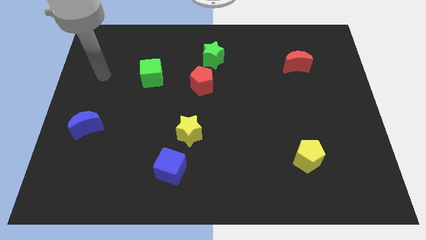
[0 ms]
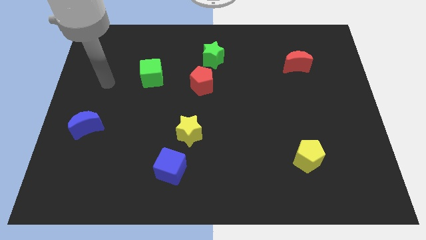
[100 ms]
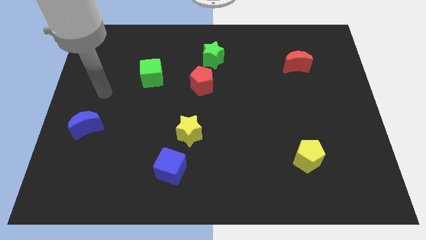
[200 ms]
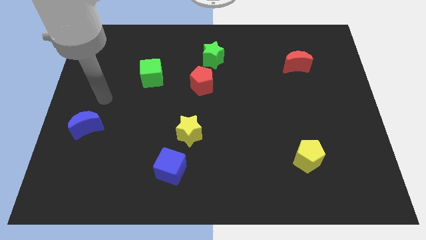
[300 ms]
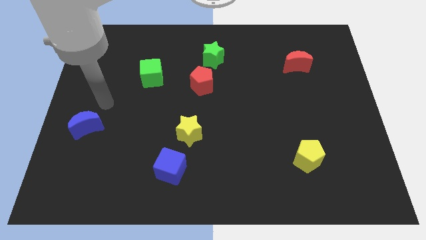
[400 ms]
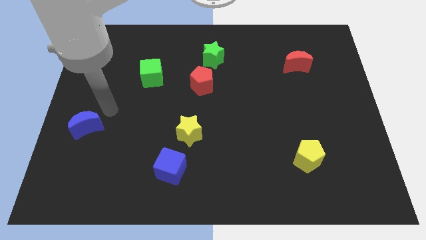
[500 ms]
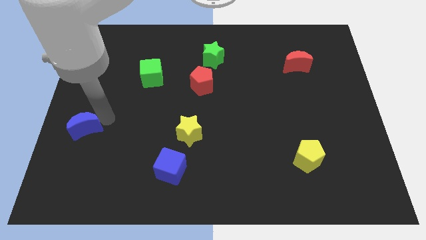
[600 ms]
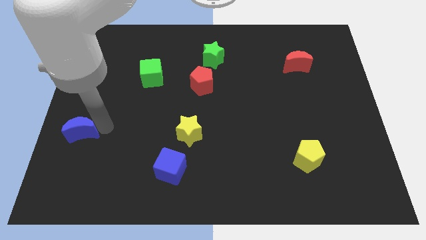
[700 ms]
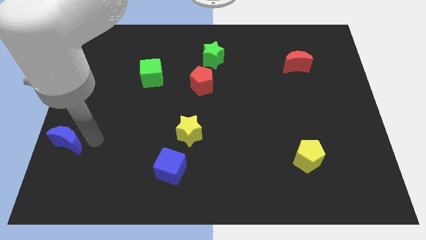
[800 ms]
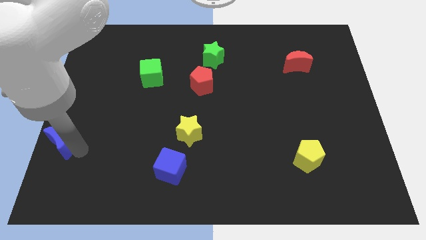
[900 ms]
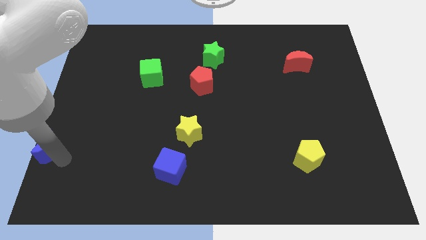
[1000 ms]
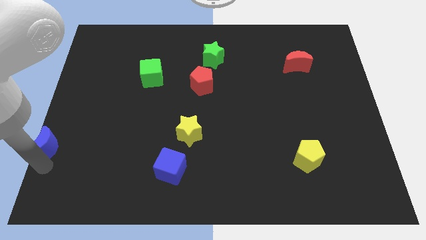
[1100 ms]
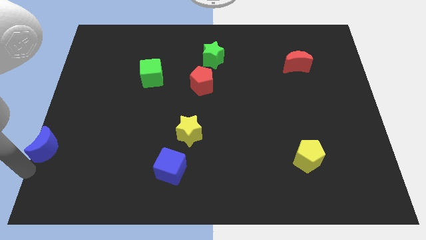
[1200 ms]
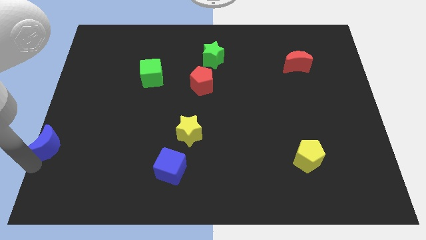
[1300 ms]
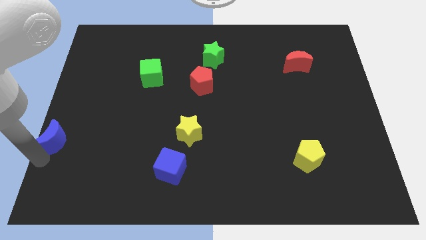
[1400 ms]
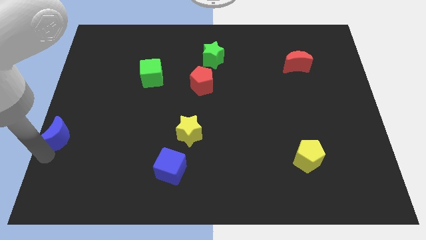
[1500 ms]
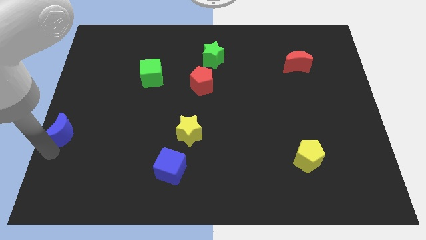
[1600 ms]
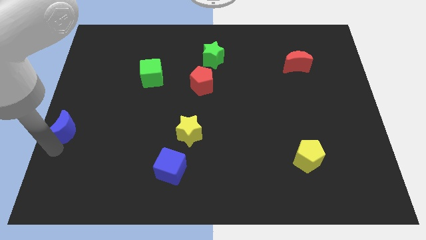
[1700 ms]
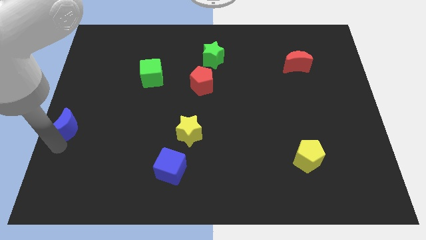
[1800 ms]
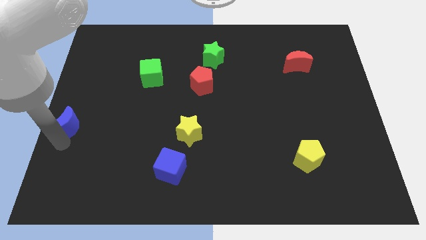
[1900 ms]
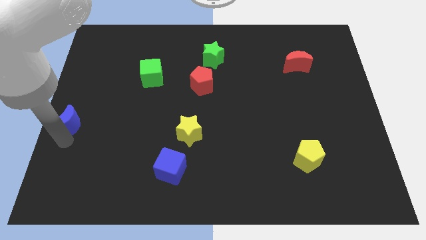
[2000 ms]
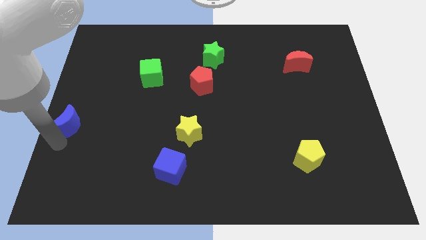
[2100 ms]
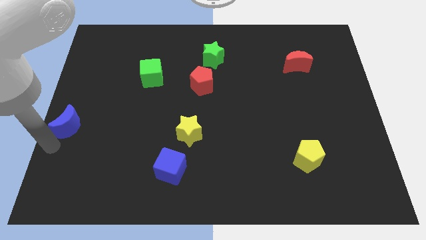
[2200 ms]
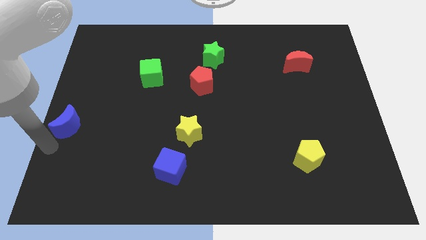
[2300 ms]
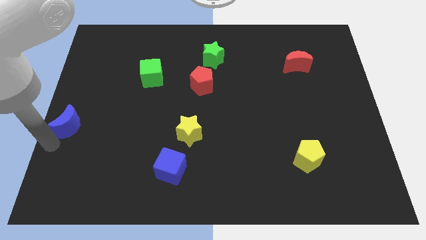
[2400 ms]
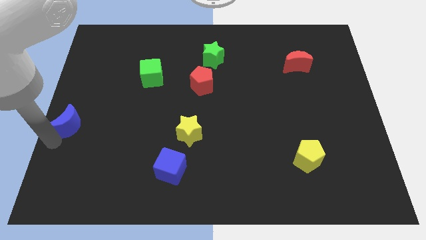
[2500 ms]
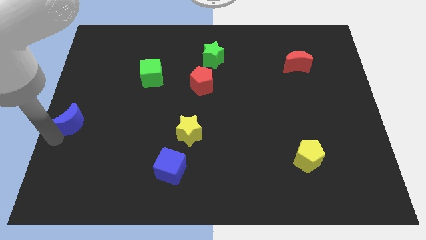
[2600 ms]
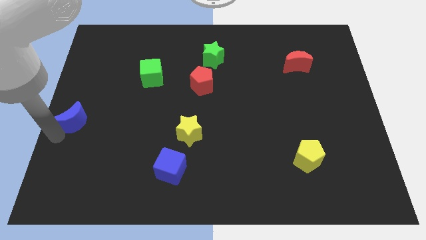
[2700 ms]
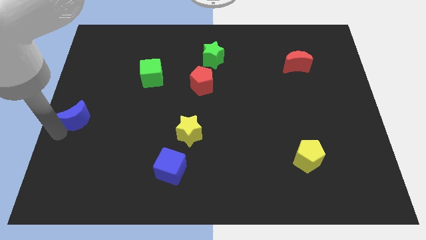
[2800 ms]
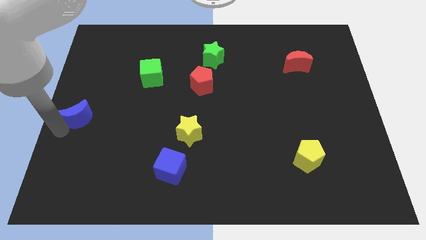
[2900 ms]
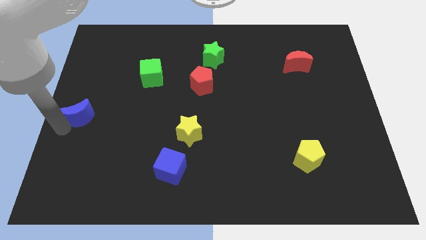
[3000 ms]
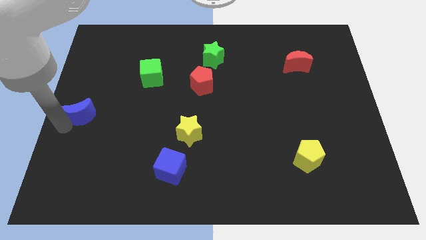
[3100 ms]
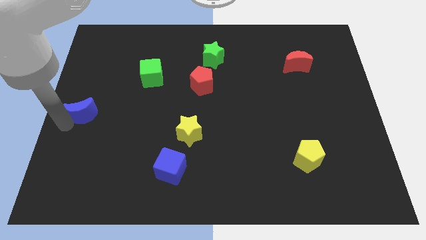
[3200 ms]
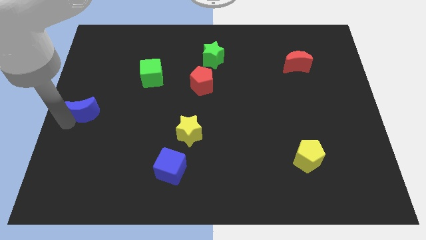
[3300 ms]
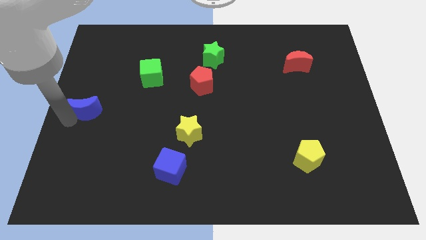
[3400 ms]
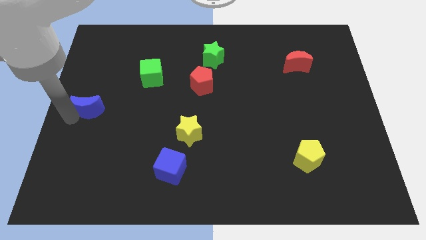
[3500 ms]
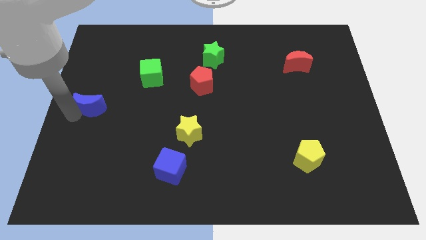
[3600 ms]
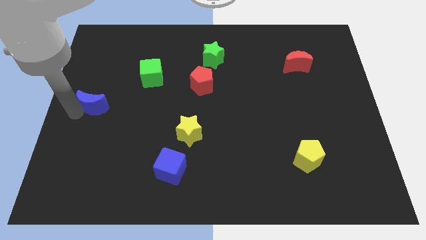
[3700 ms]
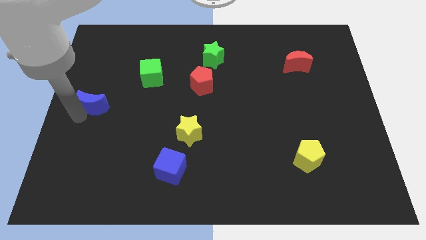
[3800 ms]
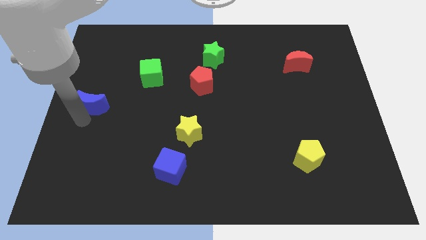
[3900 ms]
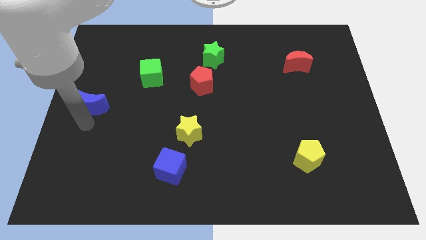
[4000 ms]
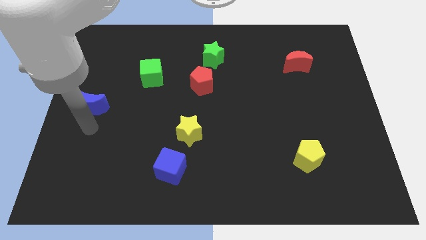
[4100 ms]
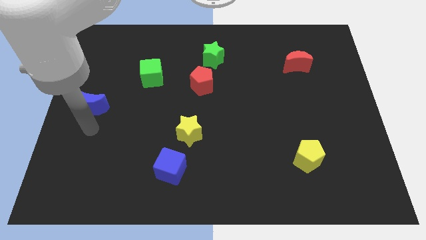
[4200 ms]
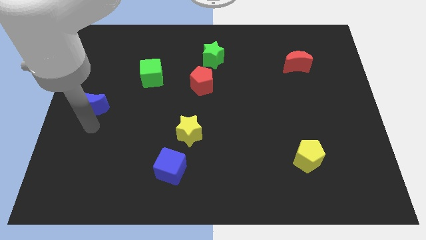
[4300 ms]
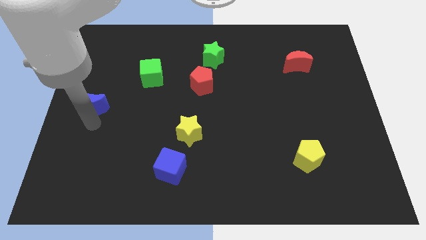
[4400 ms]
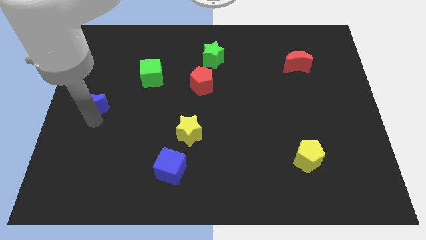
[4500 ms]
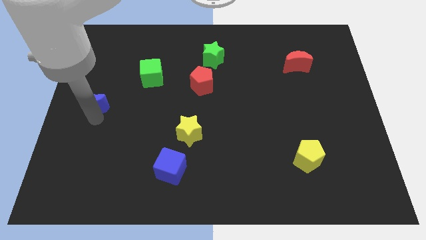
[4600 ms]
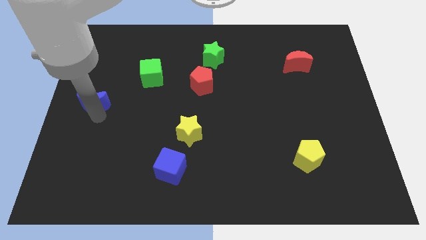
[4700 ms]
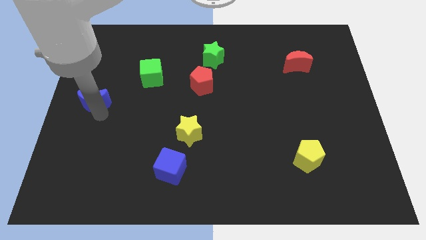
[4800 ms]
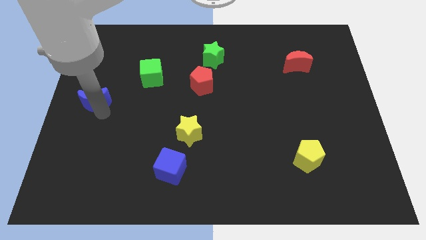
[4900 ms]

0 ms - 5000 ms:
slightly slide the blue moon upwards

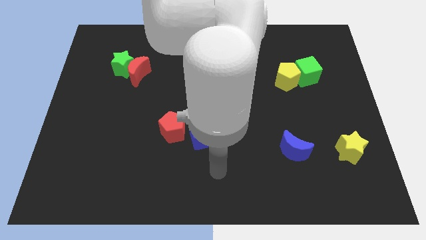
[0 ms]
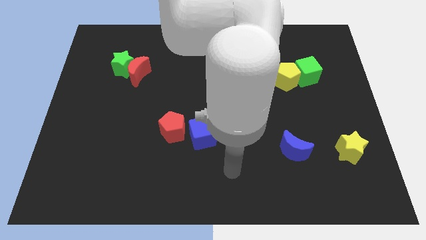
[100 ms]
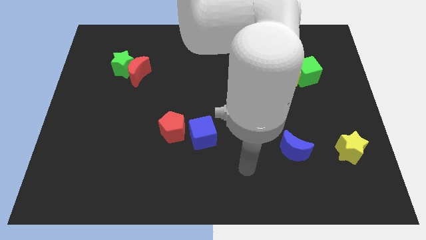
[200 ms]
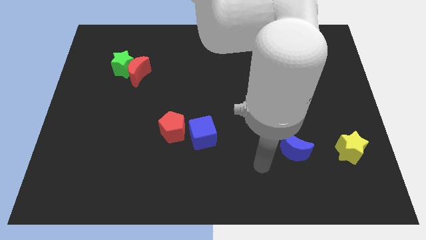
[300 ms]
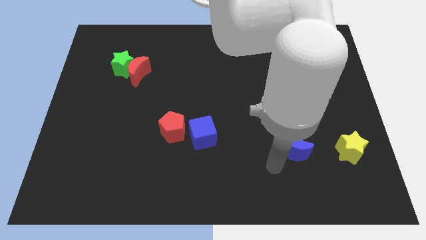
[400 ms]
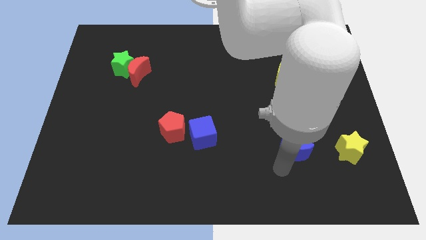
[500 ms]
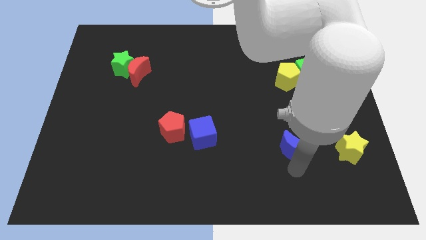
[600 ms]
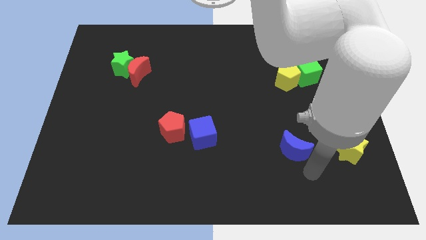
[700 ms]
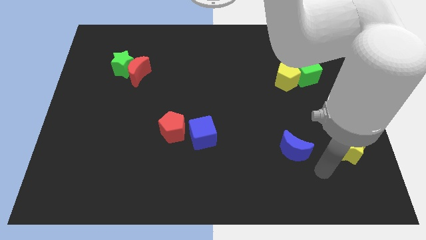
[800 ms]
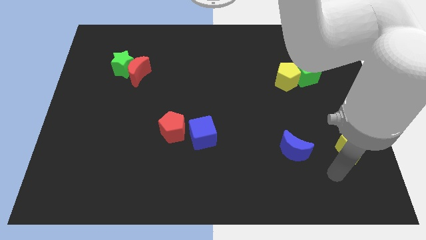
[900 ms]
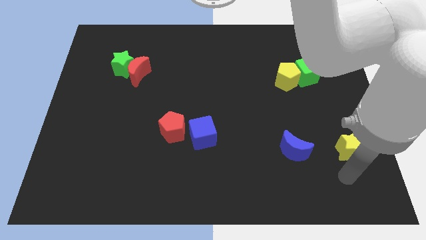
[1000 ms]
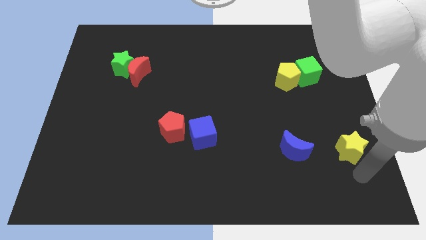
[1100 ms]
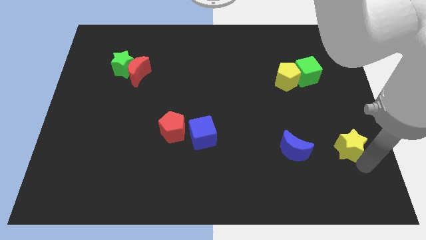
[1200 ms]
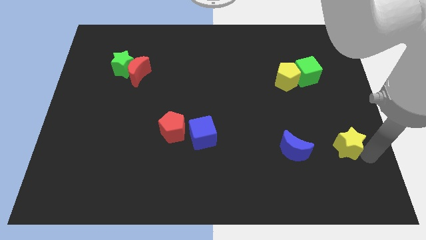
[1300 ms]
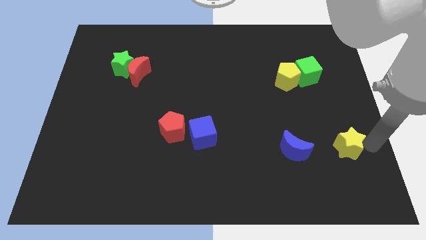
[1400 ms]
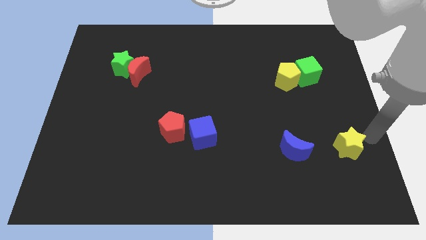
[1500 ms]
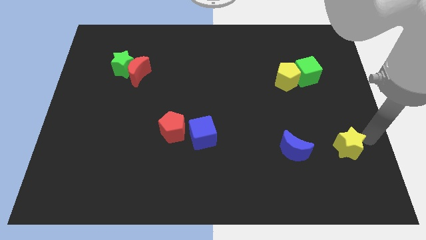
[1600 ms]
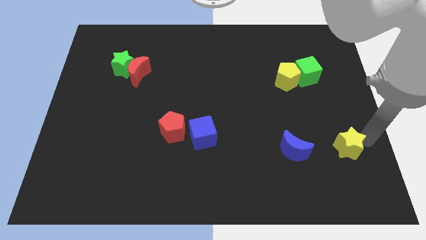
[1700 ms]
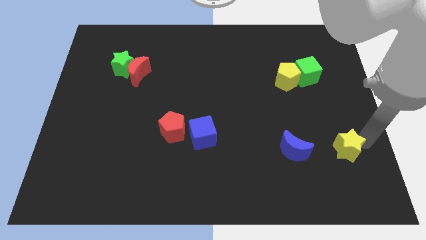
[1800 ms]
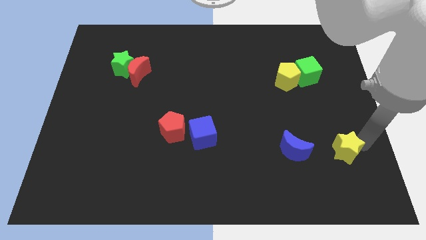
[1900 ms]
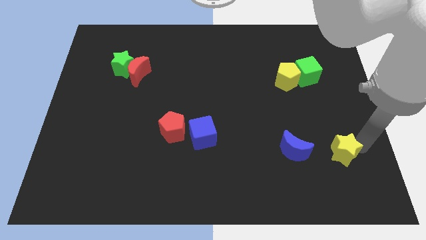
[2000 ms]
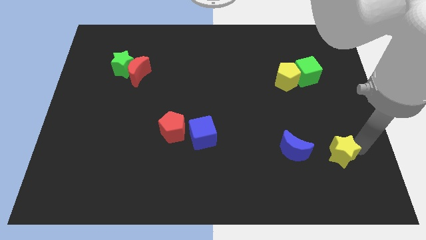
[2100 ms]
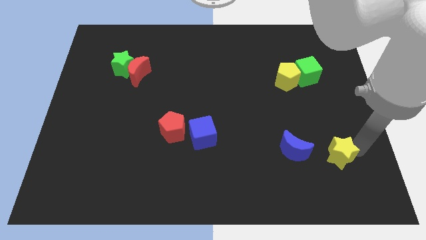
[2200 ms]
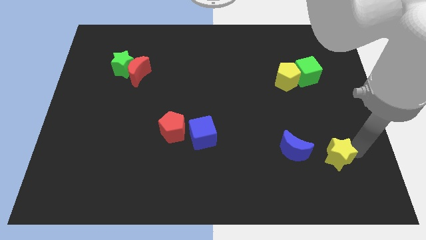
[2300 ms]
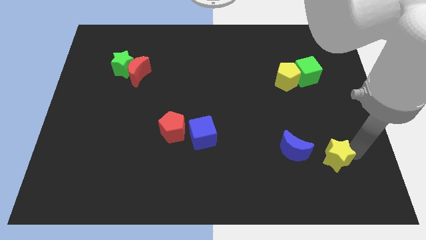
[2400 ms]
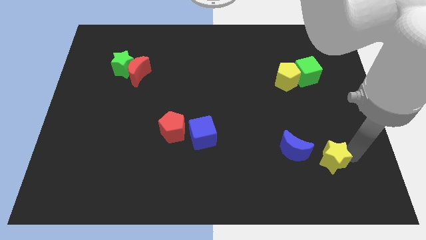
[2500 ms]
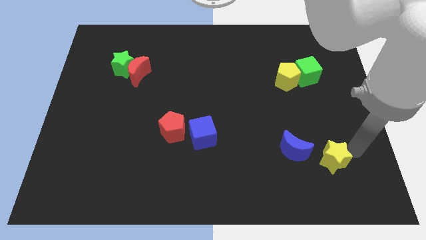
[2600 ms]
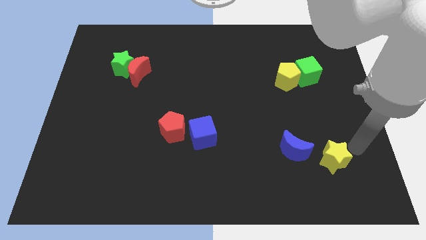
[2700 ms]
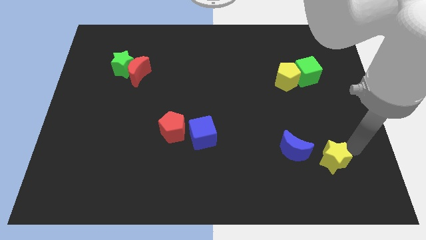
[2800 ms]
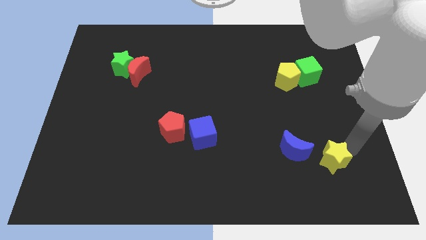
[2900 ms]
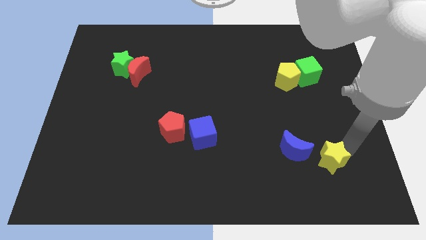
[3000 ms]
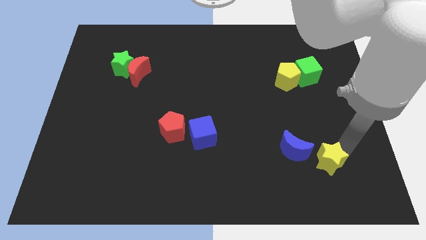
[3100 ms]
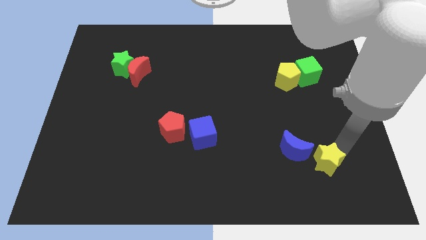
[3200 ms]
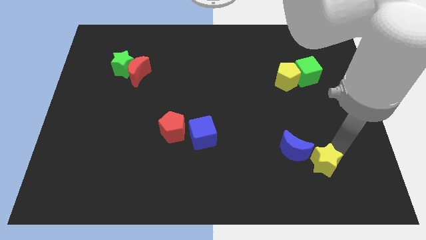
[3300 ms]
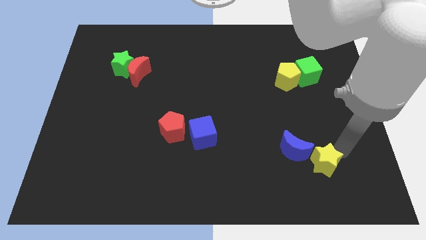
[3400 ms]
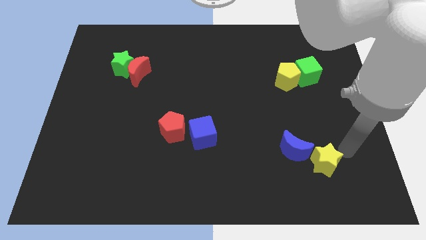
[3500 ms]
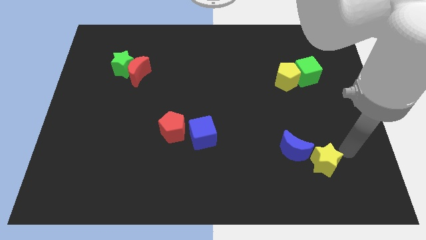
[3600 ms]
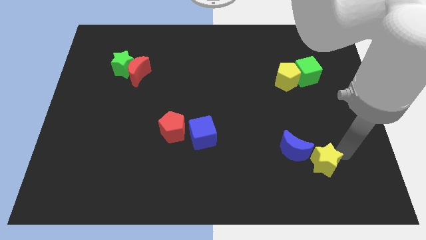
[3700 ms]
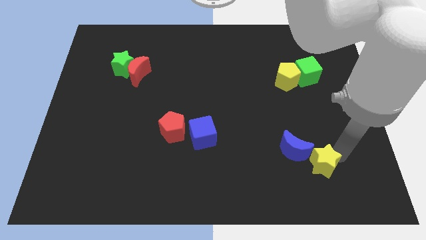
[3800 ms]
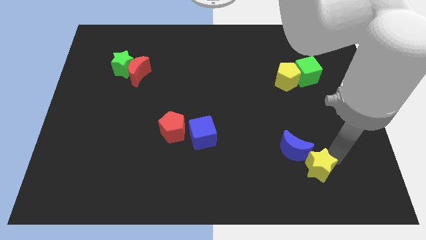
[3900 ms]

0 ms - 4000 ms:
push the yellow star a little to the left

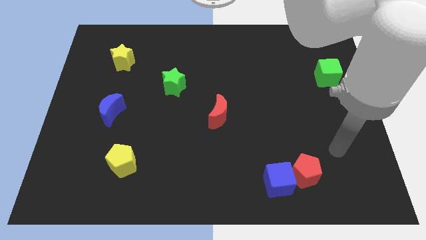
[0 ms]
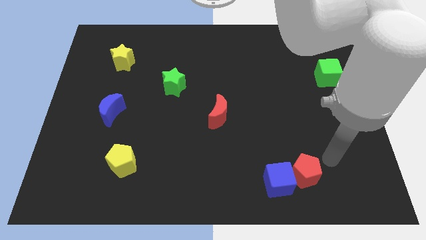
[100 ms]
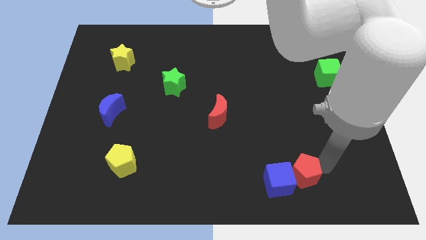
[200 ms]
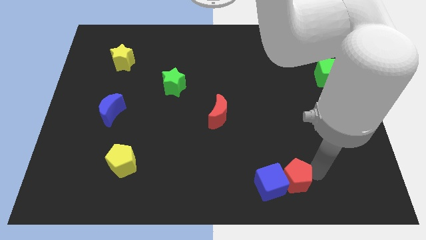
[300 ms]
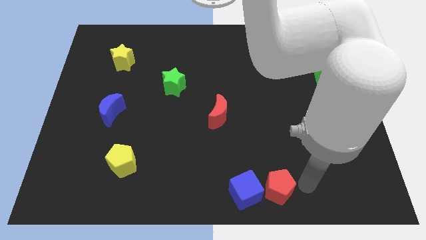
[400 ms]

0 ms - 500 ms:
move the blue cube to the left a bit
